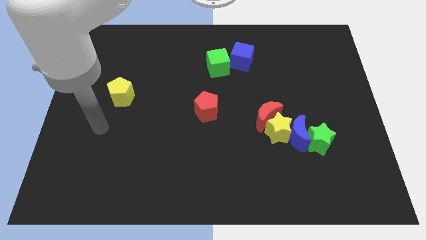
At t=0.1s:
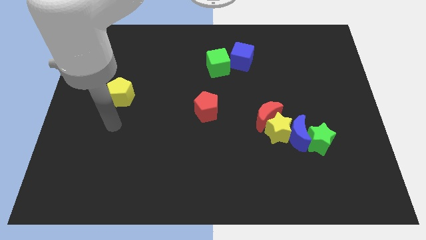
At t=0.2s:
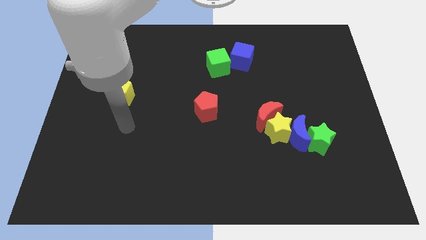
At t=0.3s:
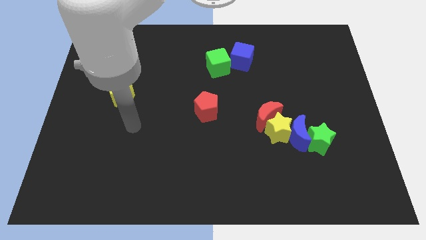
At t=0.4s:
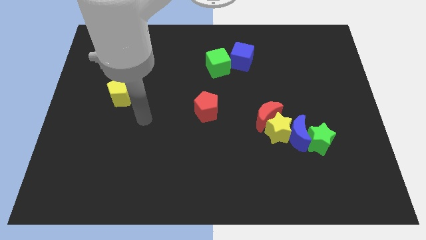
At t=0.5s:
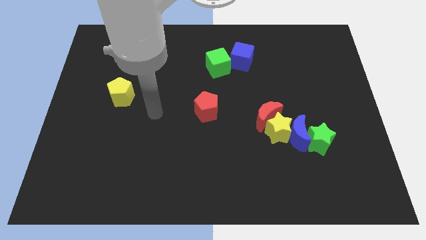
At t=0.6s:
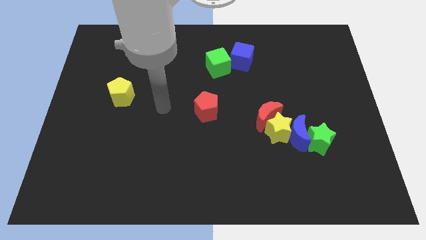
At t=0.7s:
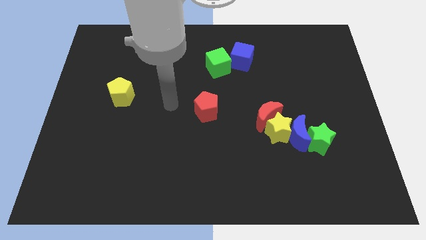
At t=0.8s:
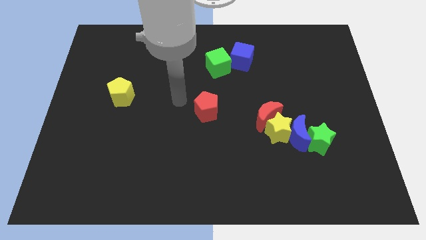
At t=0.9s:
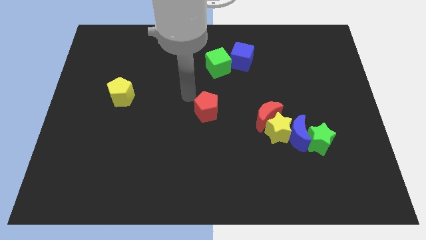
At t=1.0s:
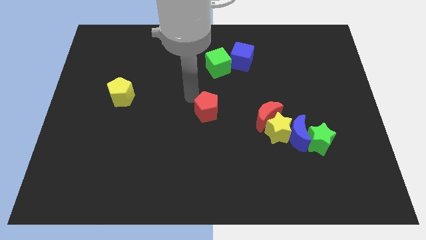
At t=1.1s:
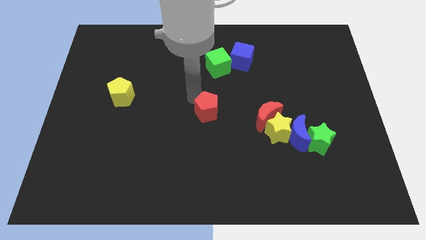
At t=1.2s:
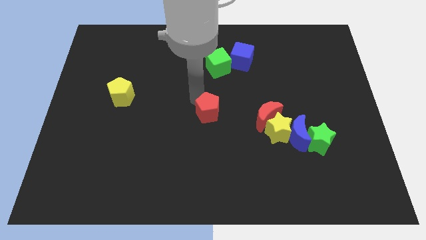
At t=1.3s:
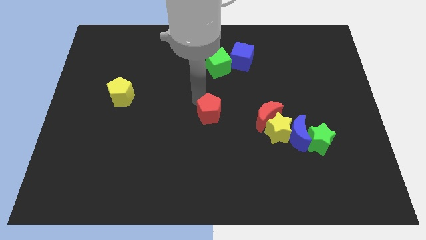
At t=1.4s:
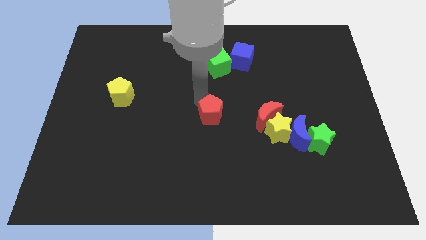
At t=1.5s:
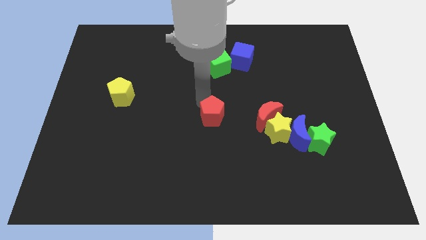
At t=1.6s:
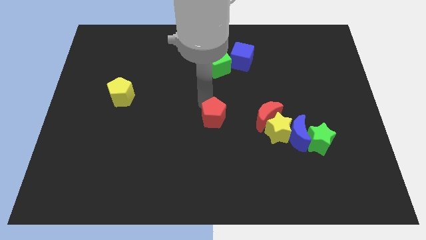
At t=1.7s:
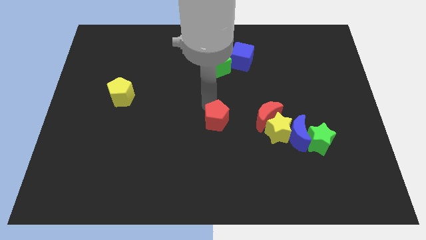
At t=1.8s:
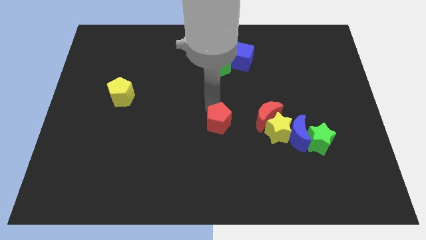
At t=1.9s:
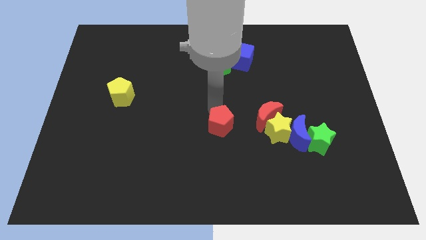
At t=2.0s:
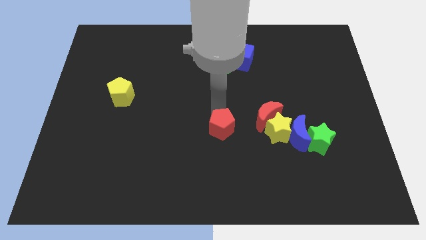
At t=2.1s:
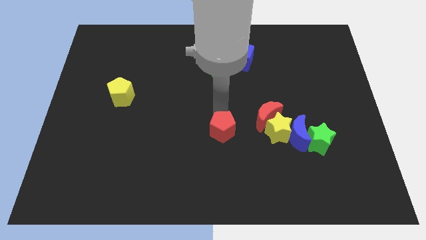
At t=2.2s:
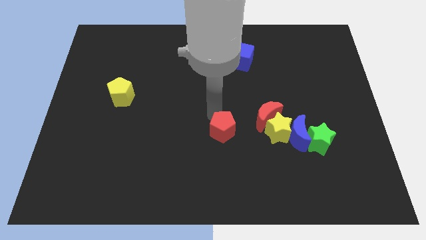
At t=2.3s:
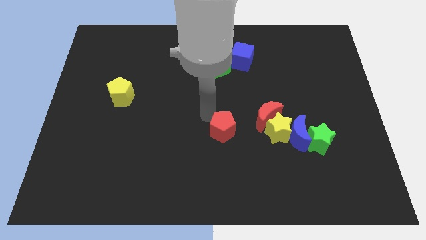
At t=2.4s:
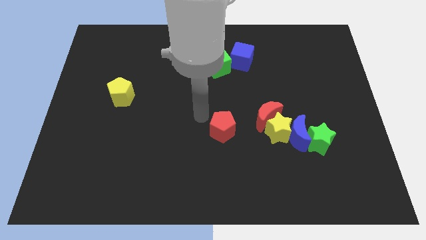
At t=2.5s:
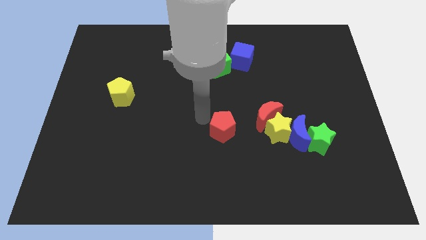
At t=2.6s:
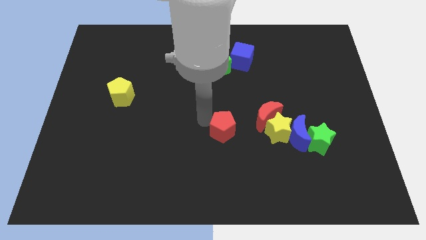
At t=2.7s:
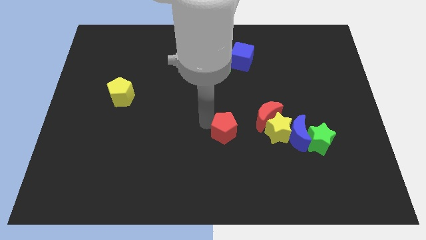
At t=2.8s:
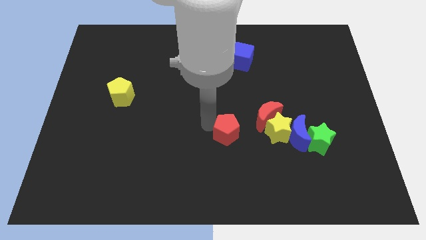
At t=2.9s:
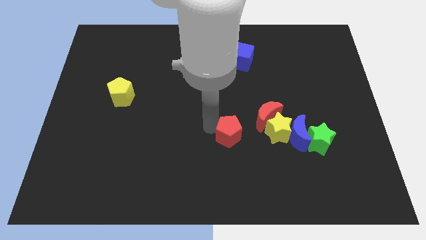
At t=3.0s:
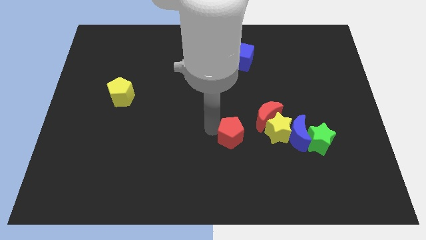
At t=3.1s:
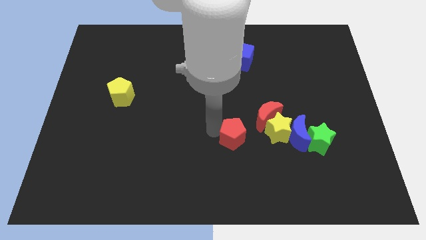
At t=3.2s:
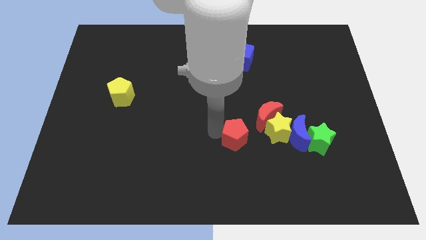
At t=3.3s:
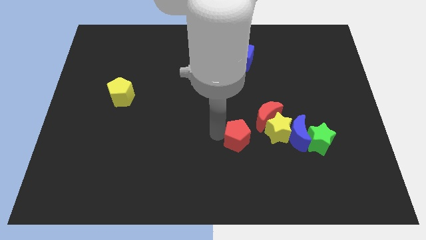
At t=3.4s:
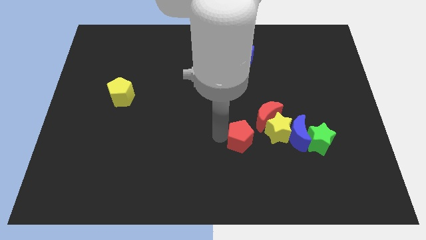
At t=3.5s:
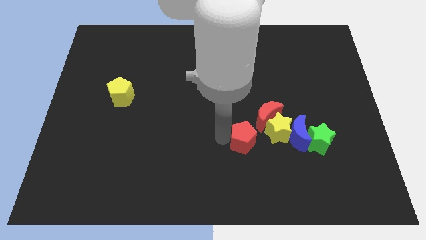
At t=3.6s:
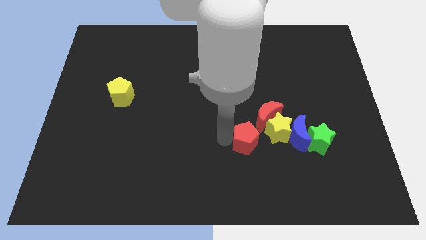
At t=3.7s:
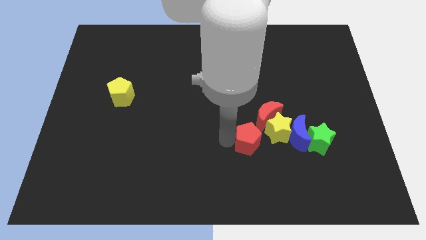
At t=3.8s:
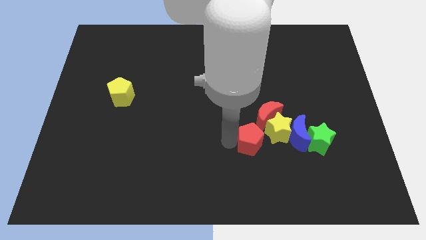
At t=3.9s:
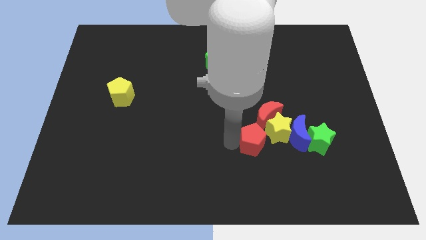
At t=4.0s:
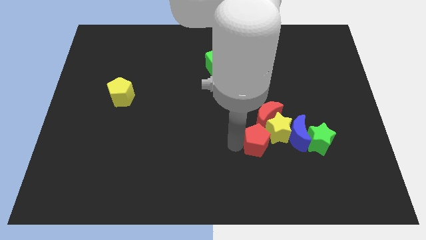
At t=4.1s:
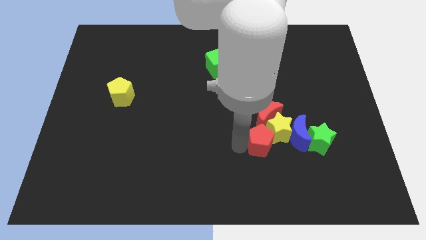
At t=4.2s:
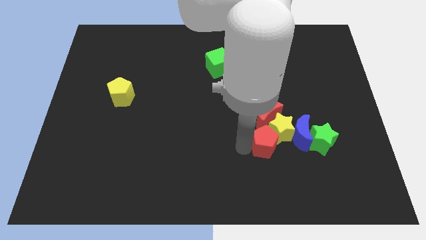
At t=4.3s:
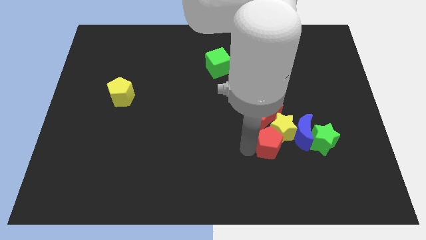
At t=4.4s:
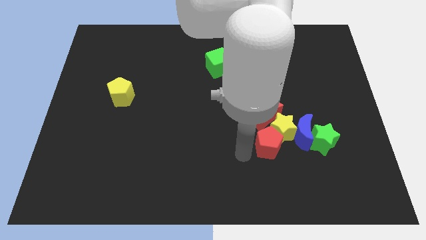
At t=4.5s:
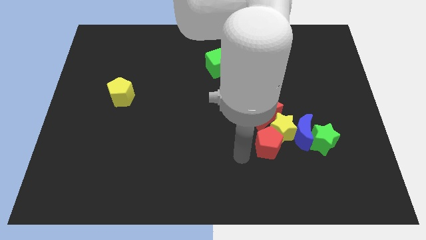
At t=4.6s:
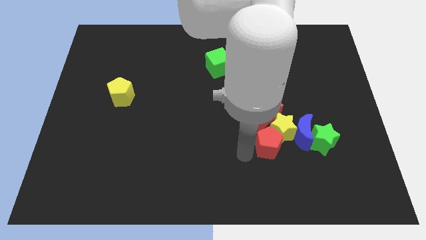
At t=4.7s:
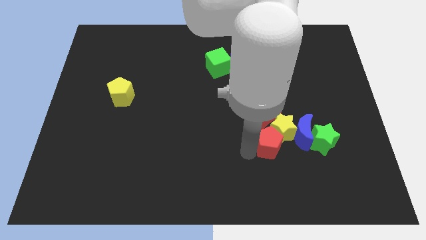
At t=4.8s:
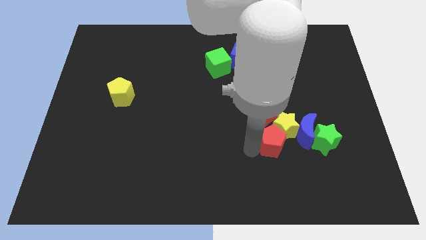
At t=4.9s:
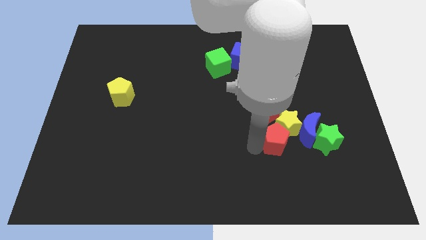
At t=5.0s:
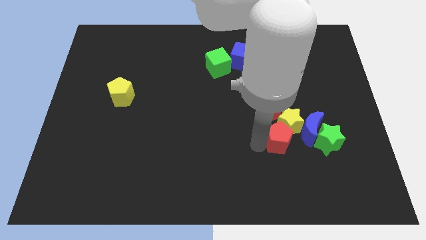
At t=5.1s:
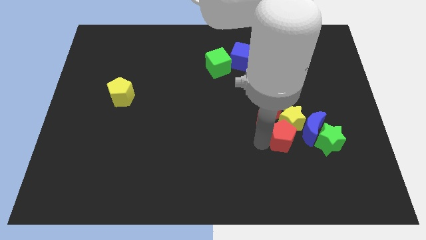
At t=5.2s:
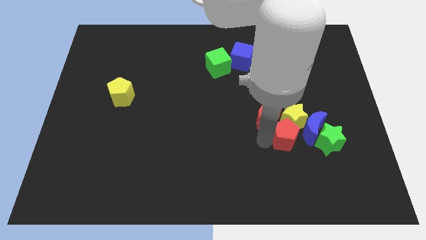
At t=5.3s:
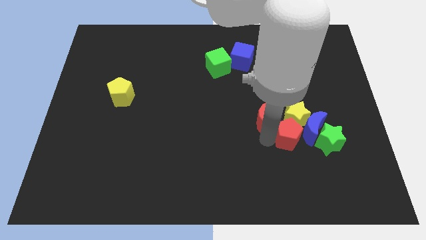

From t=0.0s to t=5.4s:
push the red pentagon to the blue moon

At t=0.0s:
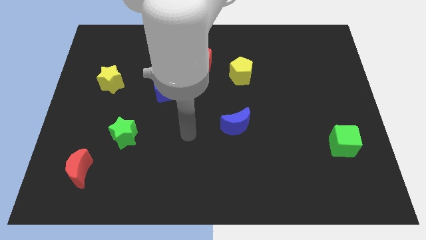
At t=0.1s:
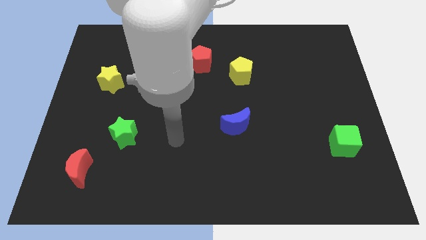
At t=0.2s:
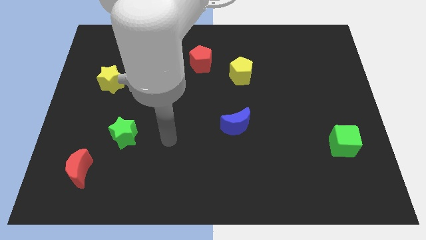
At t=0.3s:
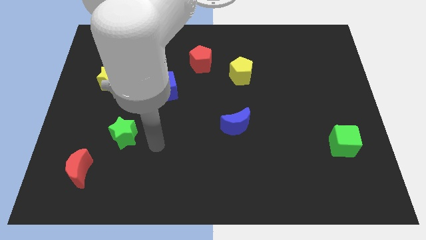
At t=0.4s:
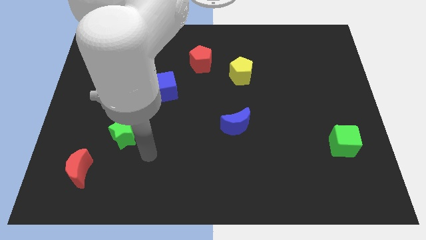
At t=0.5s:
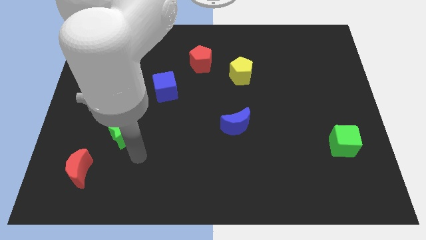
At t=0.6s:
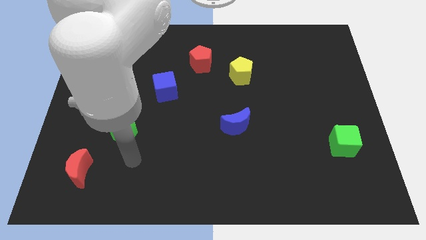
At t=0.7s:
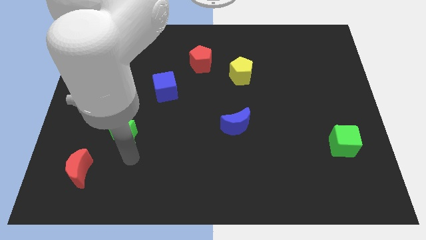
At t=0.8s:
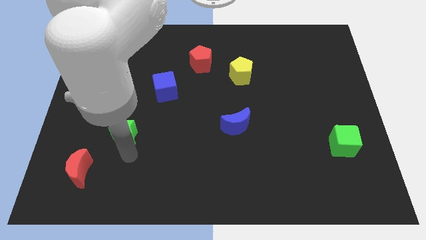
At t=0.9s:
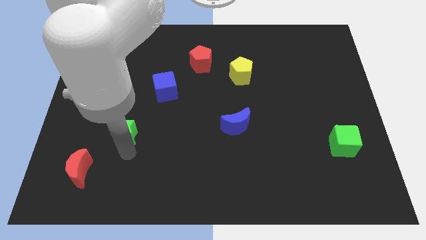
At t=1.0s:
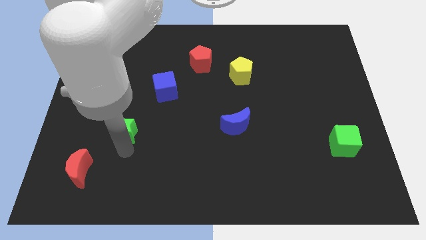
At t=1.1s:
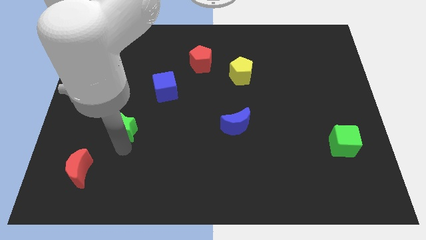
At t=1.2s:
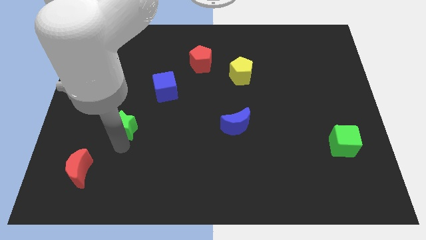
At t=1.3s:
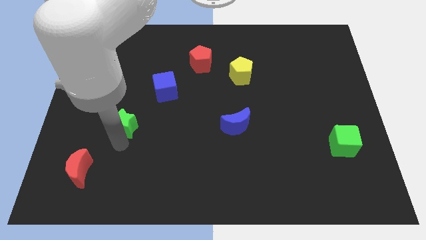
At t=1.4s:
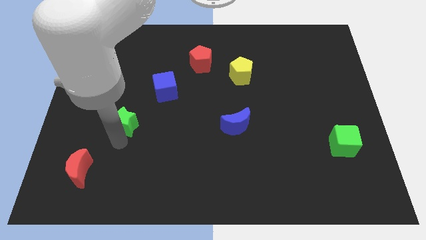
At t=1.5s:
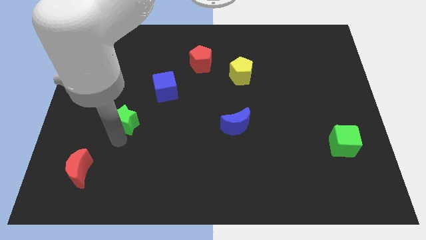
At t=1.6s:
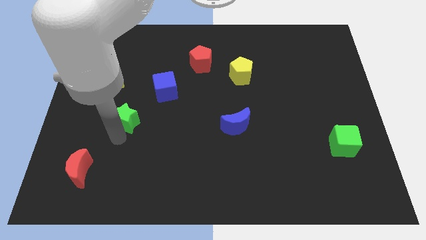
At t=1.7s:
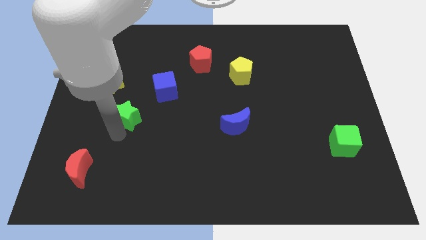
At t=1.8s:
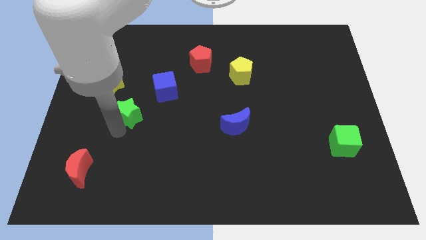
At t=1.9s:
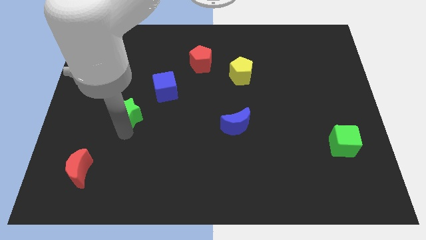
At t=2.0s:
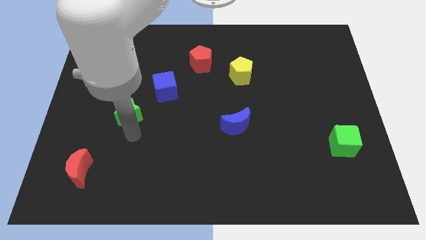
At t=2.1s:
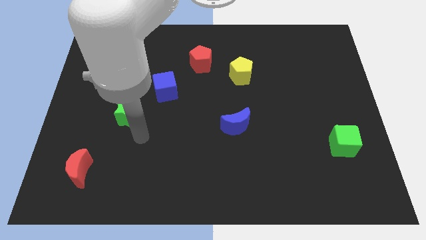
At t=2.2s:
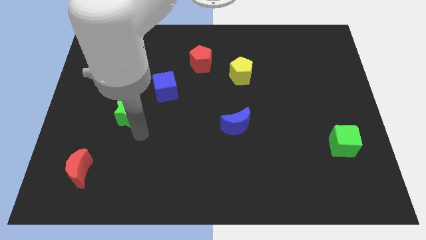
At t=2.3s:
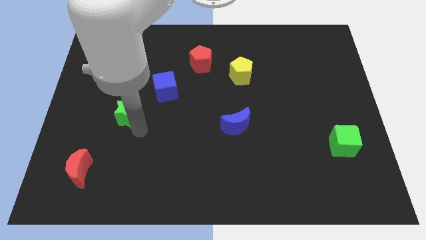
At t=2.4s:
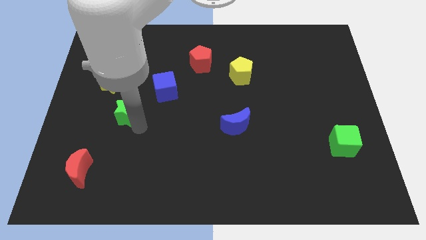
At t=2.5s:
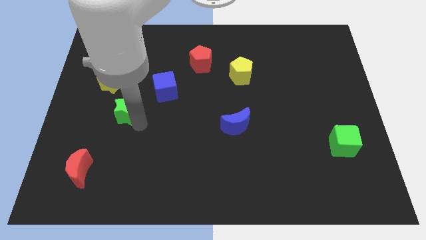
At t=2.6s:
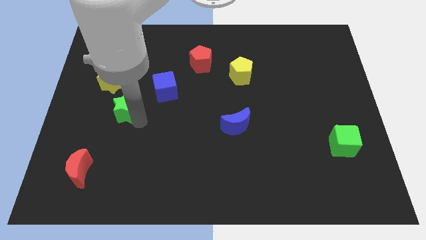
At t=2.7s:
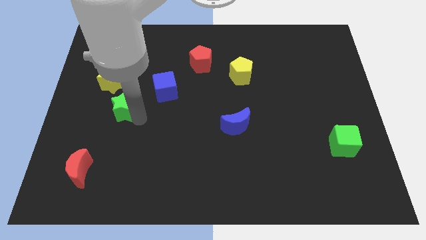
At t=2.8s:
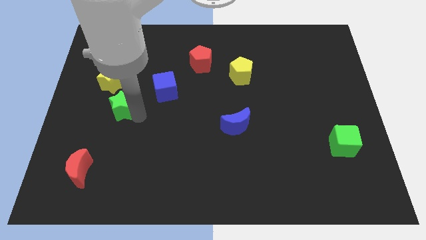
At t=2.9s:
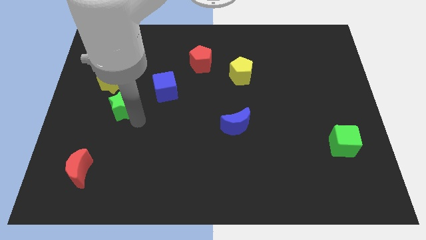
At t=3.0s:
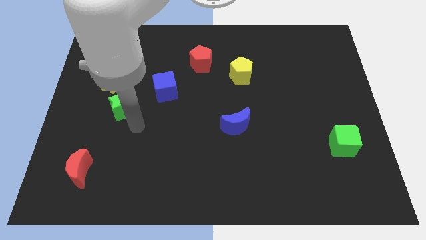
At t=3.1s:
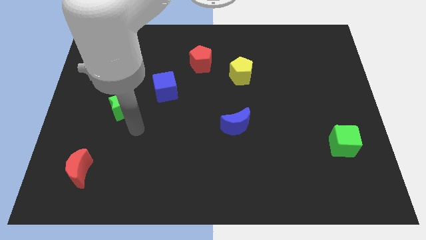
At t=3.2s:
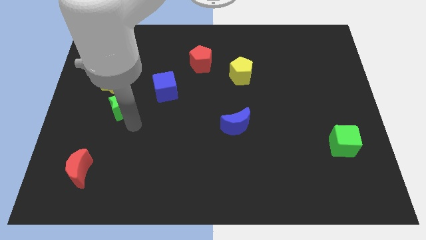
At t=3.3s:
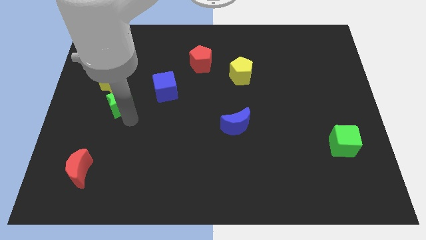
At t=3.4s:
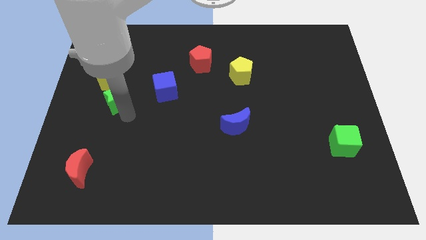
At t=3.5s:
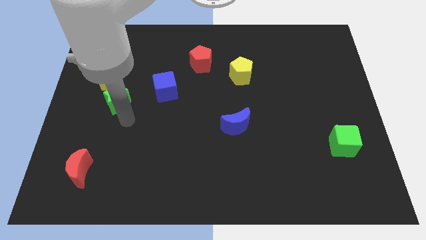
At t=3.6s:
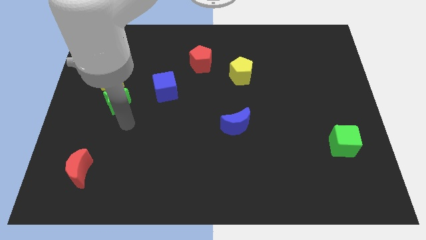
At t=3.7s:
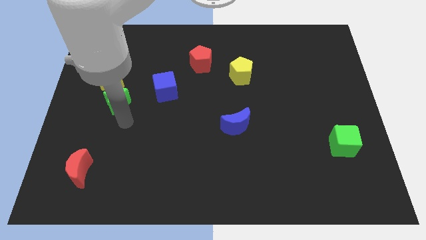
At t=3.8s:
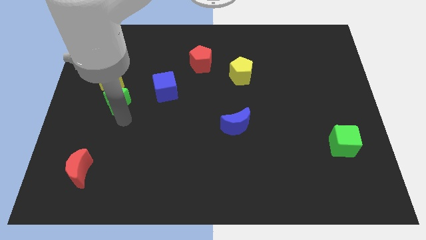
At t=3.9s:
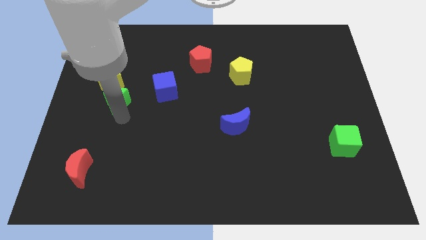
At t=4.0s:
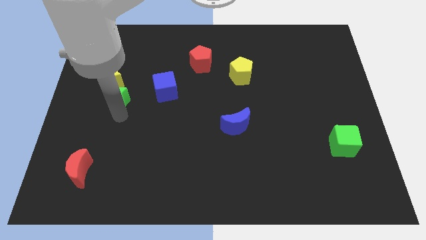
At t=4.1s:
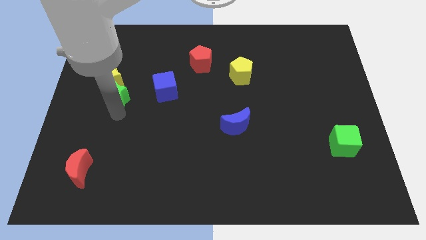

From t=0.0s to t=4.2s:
move the green star to the yellow star
